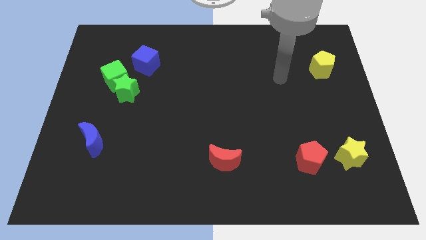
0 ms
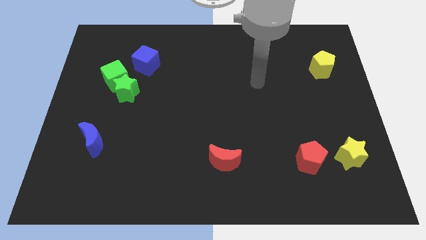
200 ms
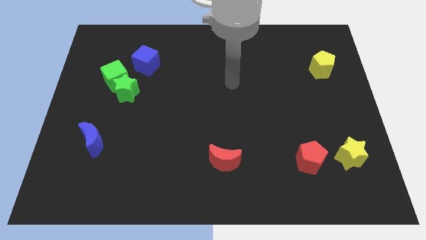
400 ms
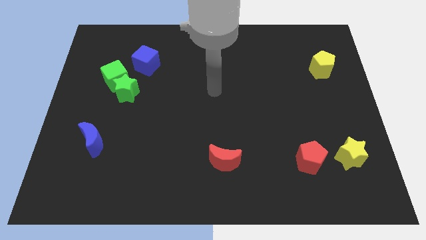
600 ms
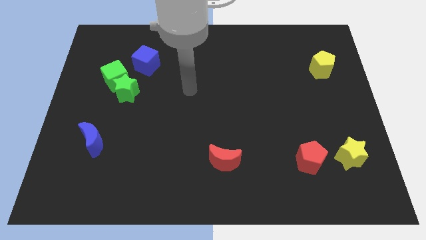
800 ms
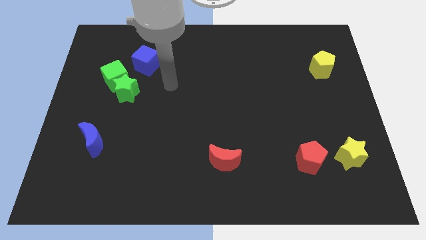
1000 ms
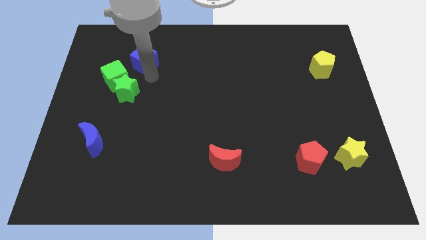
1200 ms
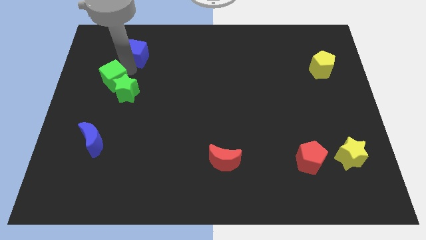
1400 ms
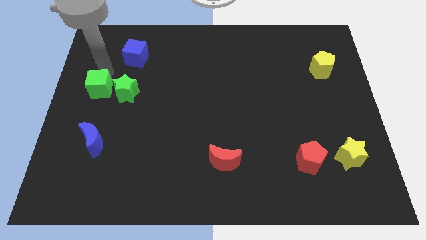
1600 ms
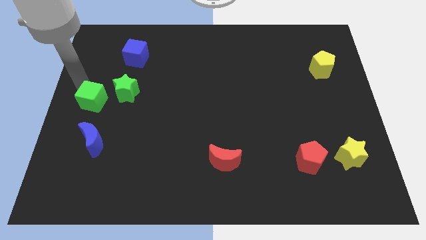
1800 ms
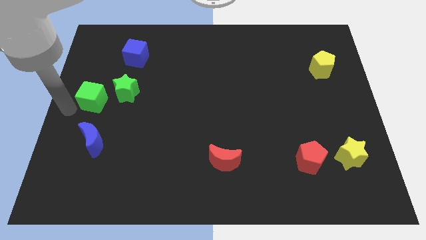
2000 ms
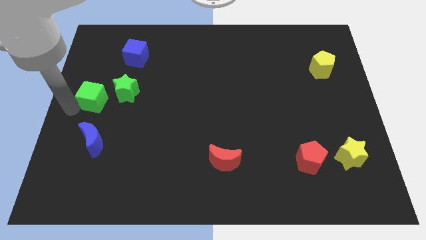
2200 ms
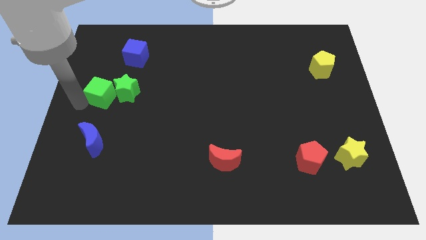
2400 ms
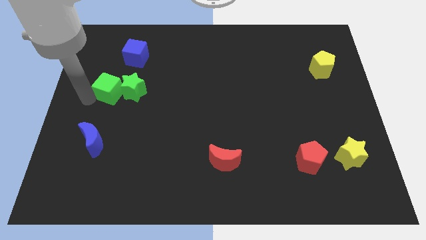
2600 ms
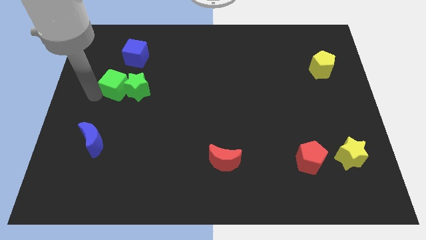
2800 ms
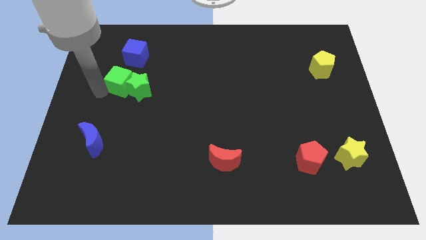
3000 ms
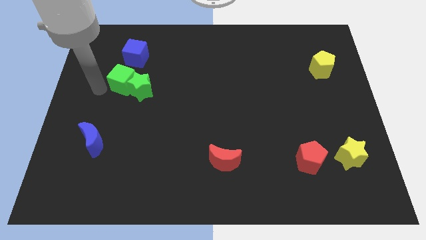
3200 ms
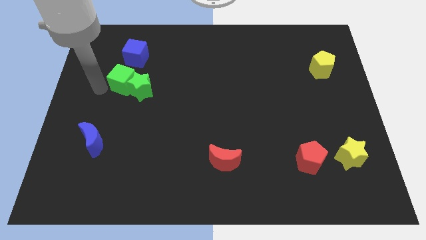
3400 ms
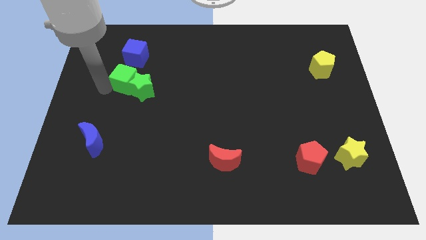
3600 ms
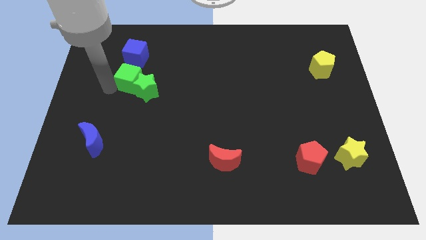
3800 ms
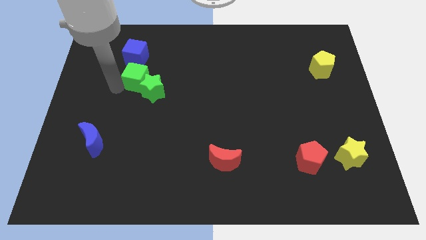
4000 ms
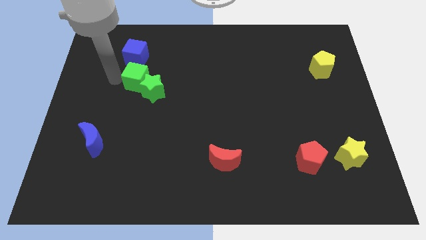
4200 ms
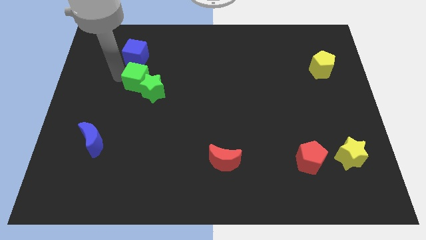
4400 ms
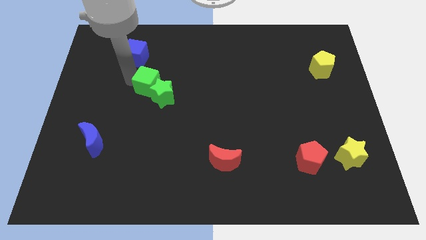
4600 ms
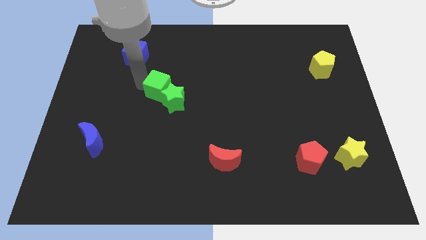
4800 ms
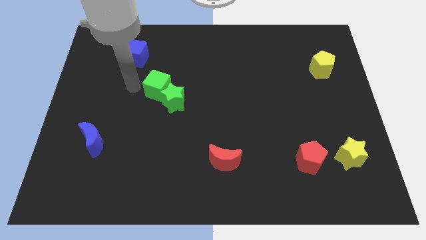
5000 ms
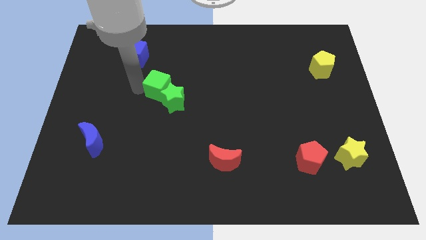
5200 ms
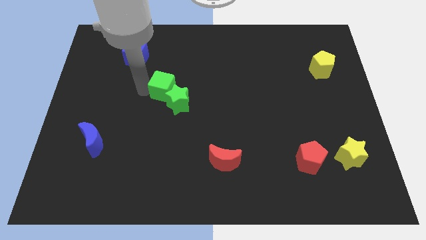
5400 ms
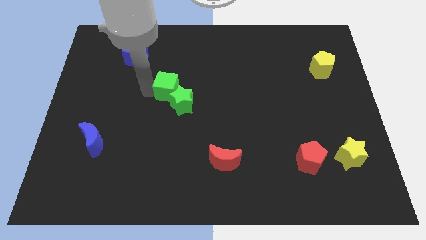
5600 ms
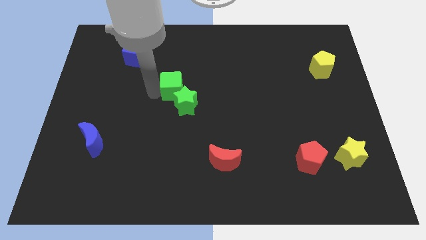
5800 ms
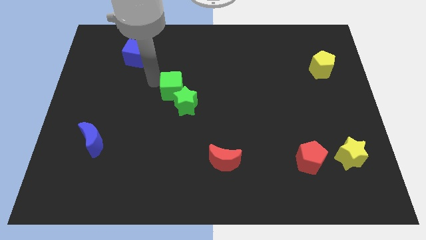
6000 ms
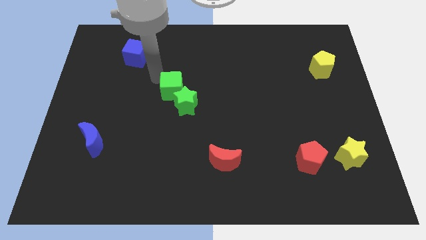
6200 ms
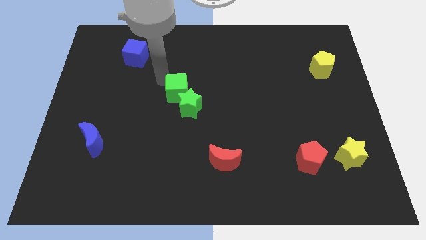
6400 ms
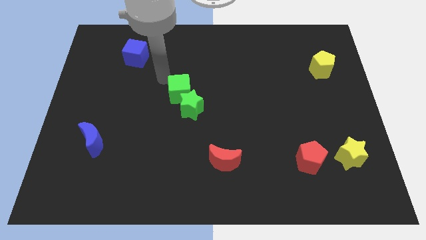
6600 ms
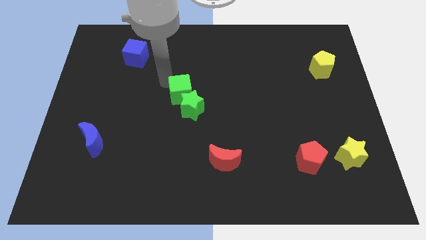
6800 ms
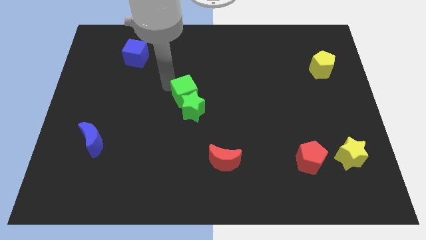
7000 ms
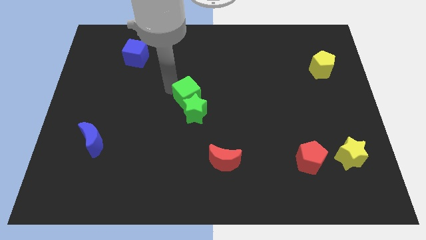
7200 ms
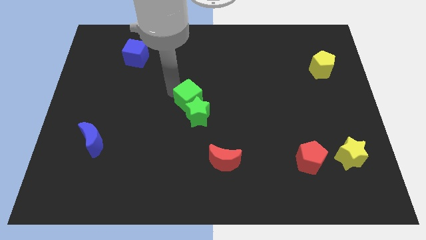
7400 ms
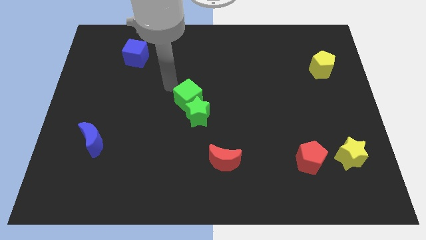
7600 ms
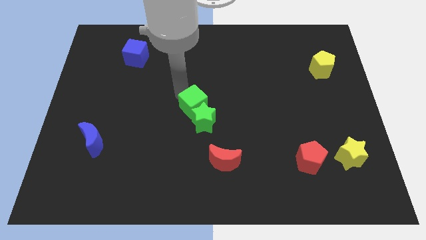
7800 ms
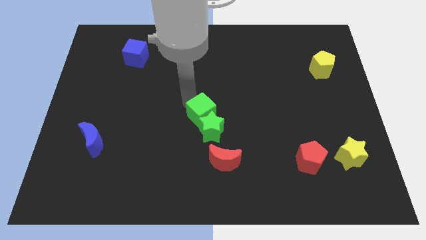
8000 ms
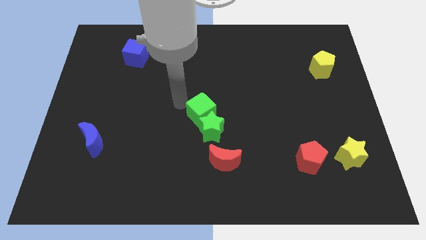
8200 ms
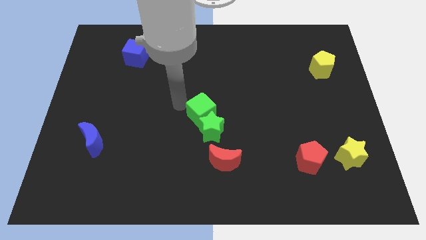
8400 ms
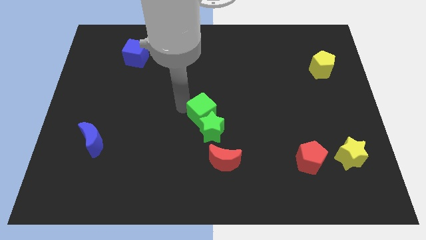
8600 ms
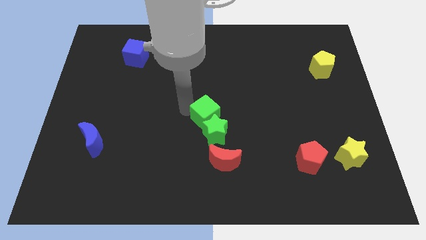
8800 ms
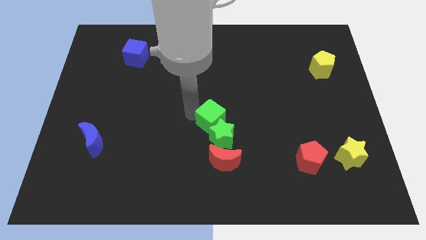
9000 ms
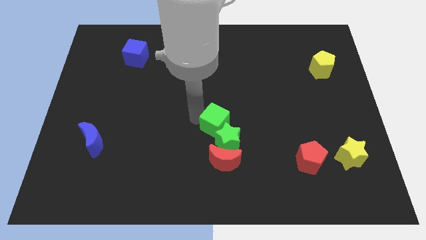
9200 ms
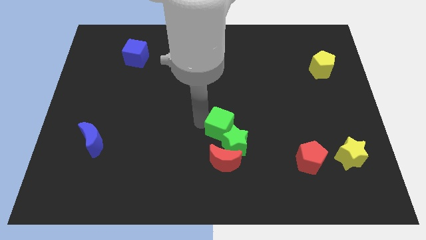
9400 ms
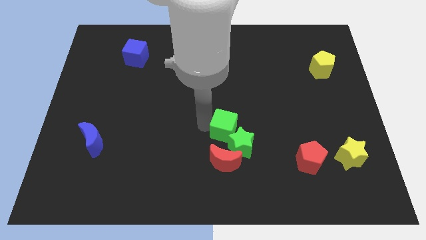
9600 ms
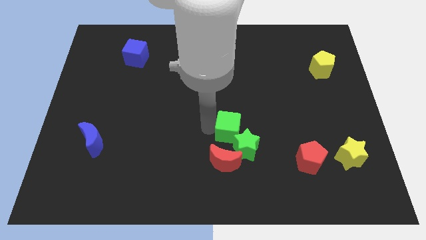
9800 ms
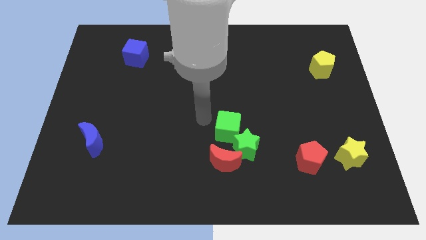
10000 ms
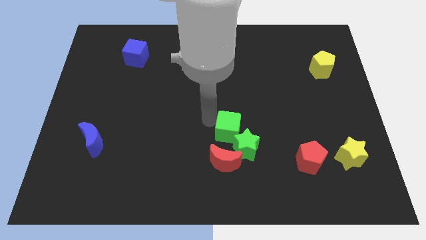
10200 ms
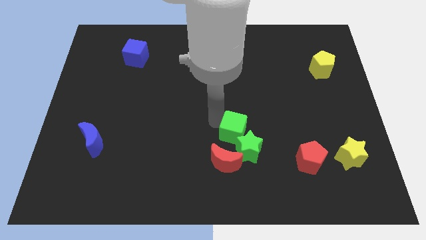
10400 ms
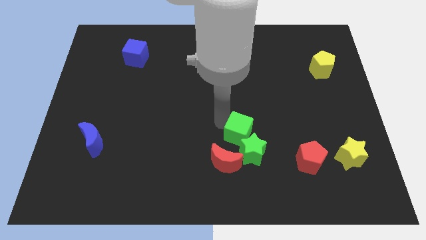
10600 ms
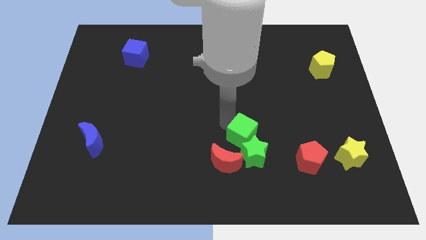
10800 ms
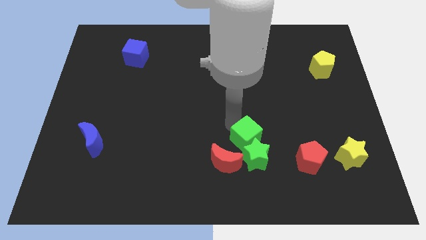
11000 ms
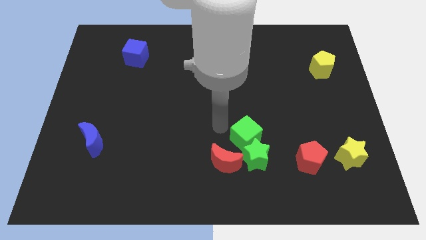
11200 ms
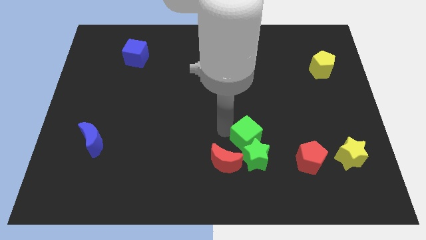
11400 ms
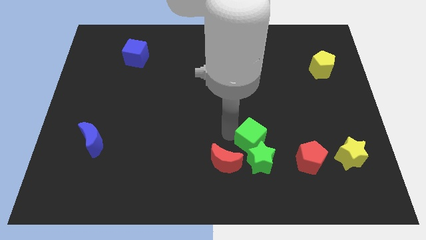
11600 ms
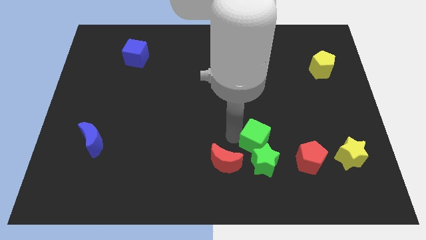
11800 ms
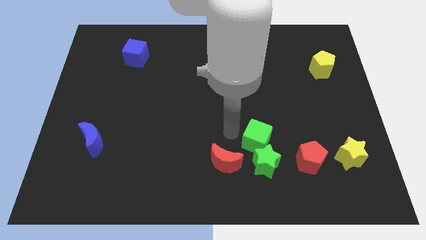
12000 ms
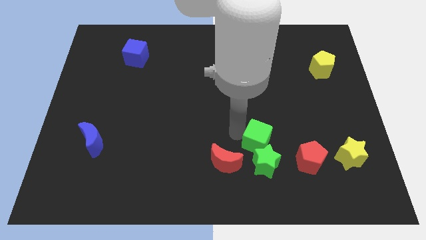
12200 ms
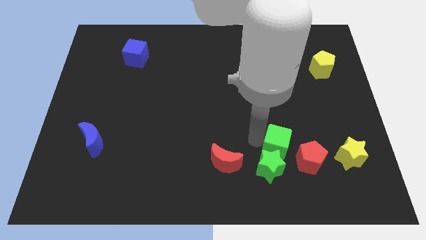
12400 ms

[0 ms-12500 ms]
push the green cube left of the yellow star
